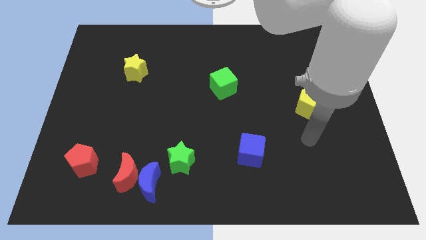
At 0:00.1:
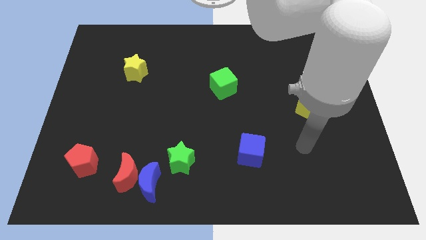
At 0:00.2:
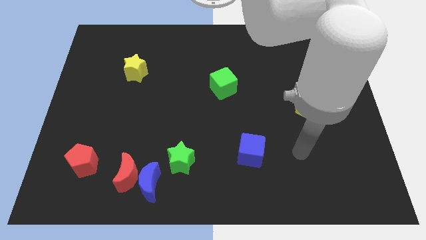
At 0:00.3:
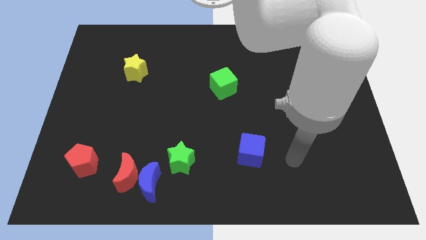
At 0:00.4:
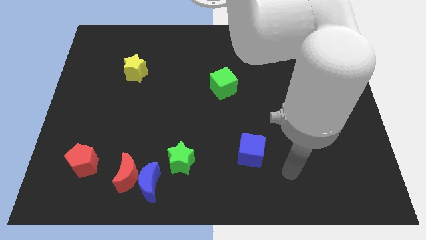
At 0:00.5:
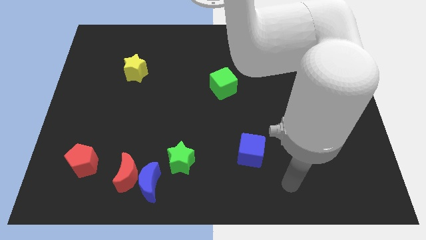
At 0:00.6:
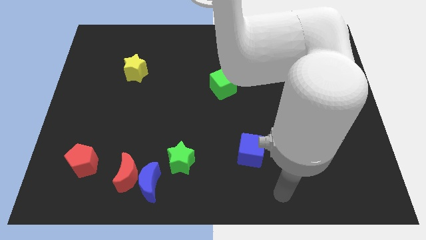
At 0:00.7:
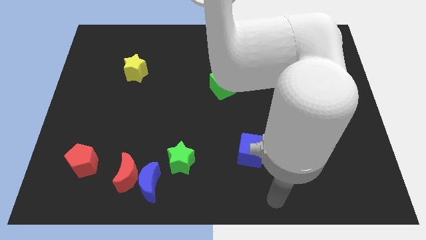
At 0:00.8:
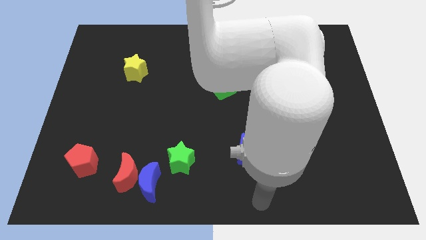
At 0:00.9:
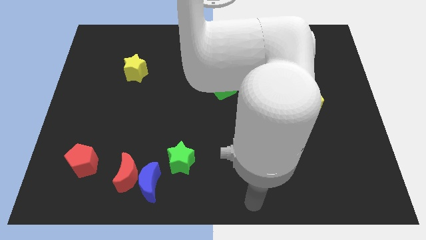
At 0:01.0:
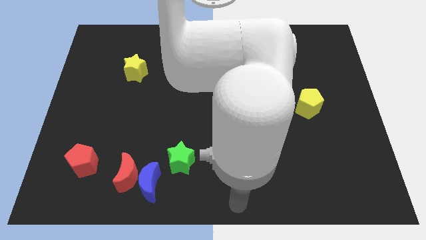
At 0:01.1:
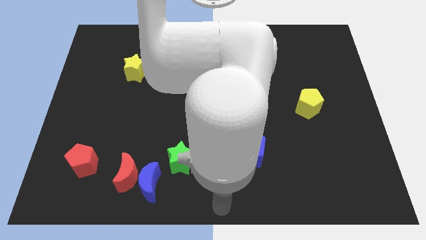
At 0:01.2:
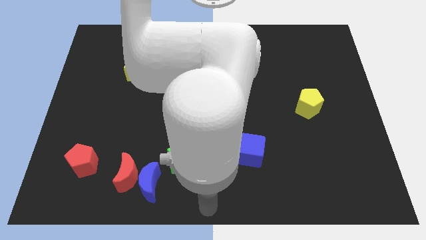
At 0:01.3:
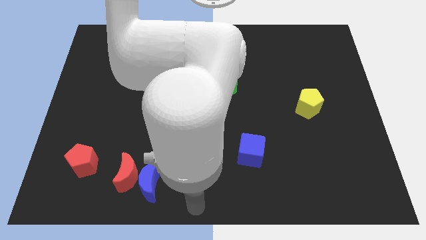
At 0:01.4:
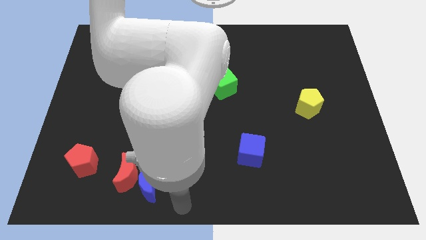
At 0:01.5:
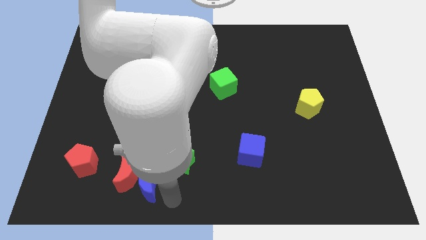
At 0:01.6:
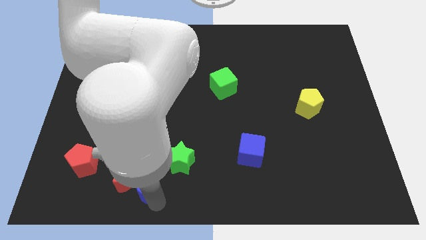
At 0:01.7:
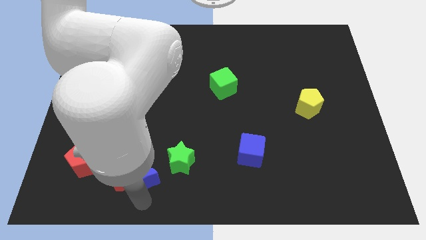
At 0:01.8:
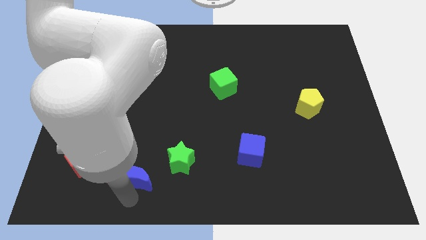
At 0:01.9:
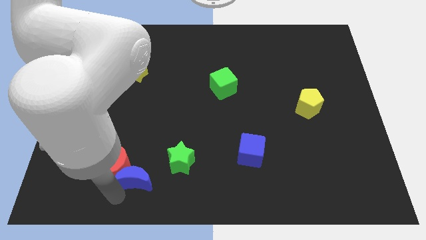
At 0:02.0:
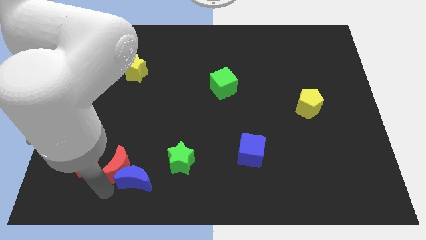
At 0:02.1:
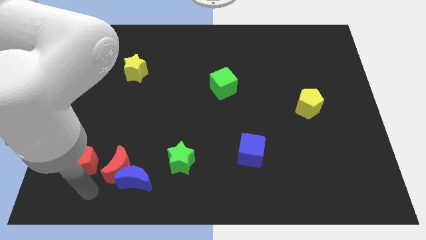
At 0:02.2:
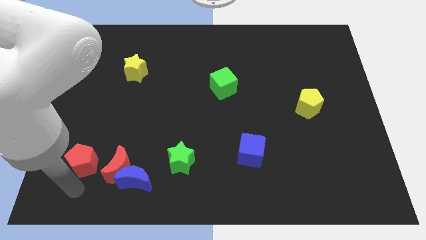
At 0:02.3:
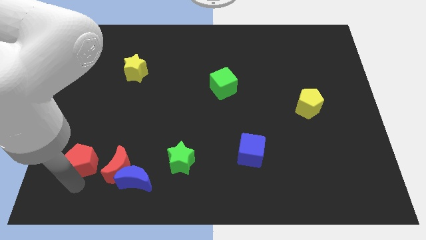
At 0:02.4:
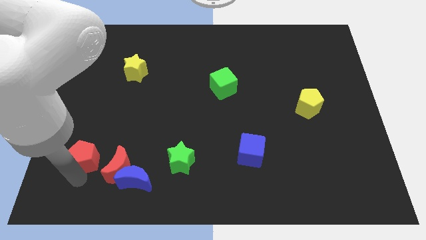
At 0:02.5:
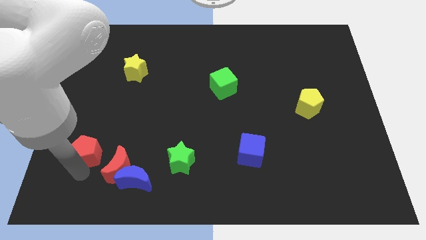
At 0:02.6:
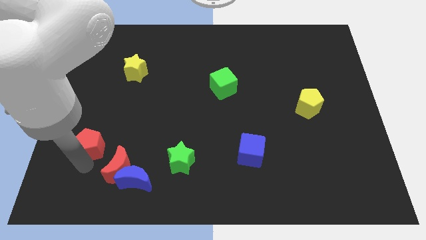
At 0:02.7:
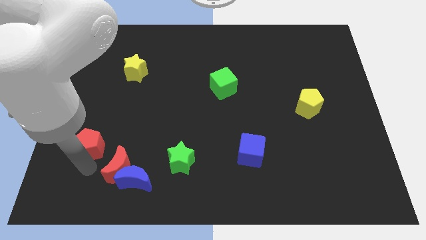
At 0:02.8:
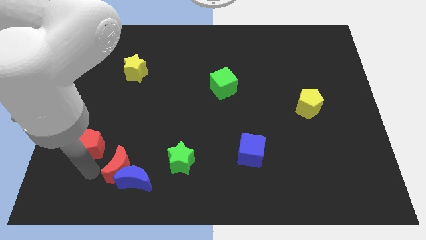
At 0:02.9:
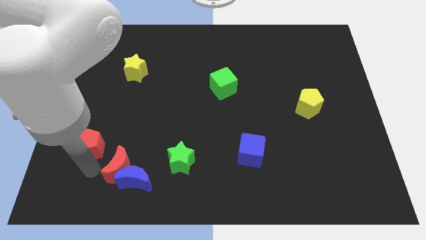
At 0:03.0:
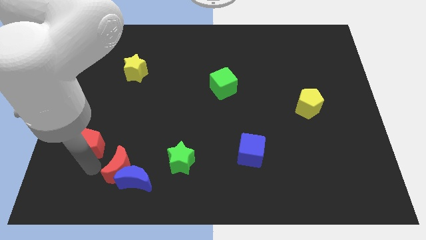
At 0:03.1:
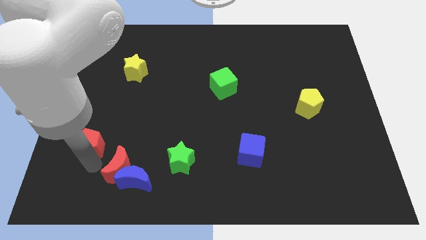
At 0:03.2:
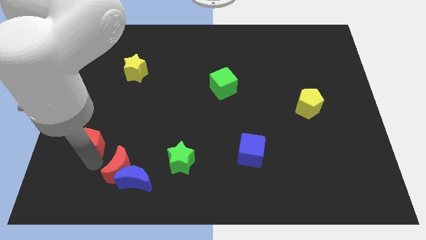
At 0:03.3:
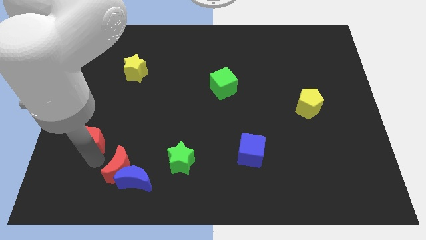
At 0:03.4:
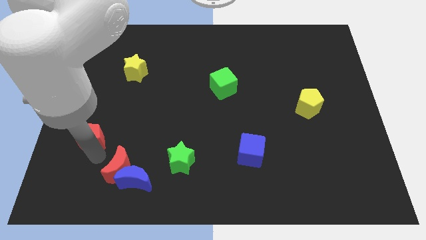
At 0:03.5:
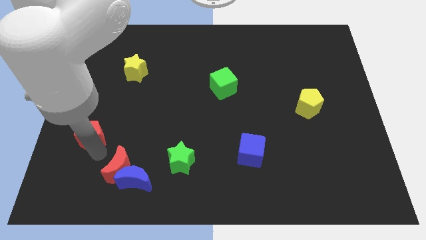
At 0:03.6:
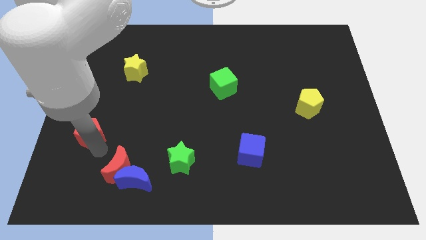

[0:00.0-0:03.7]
slide the red pentagon slightly up

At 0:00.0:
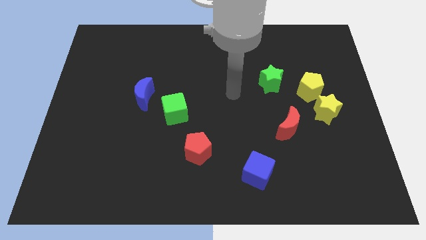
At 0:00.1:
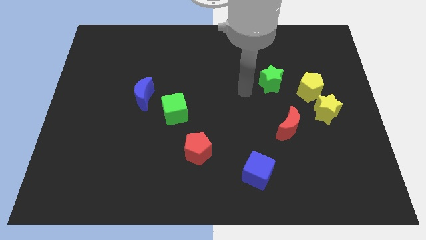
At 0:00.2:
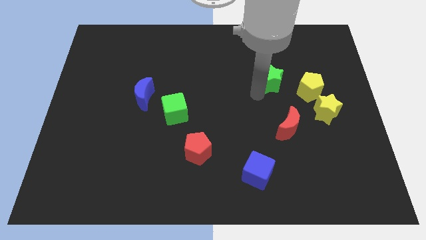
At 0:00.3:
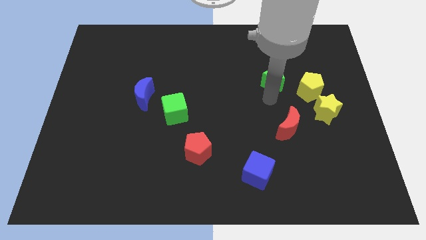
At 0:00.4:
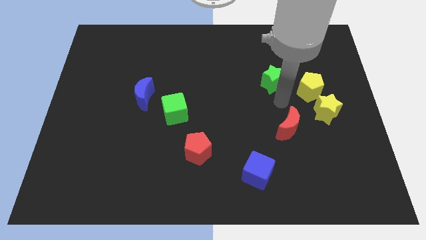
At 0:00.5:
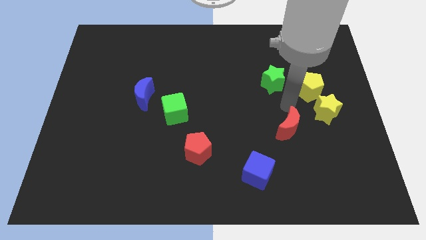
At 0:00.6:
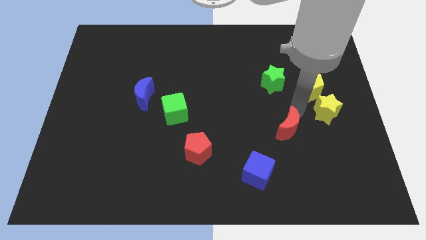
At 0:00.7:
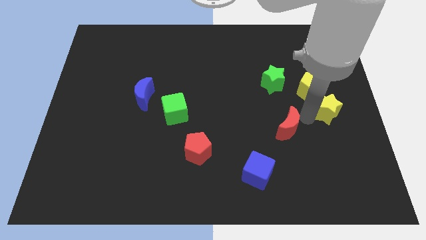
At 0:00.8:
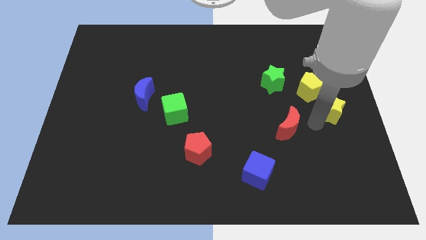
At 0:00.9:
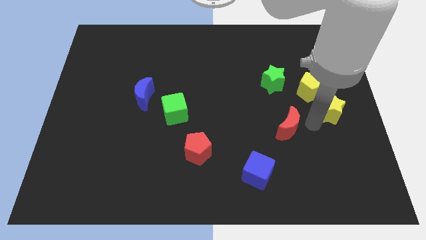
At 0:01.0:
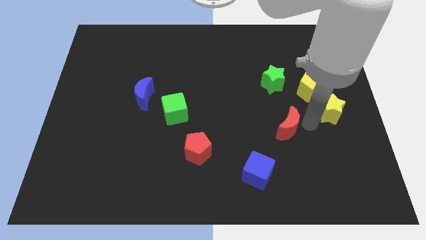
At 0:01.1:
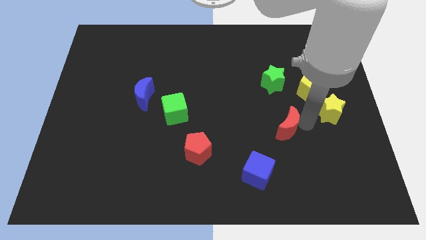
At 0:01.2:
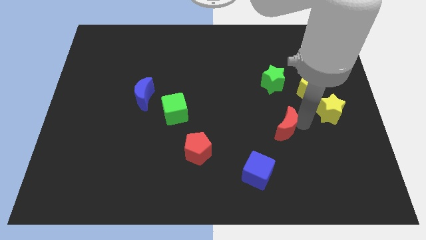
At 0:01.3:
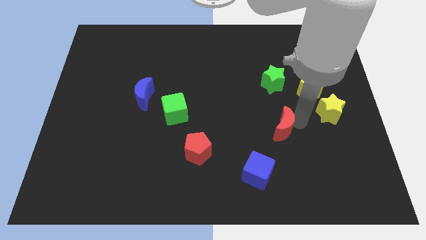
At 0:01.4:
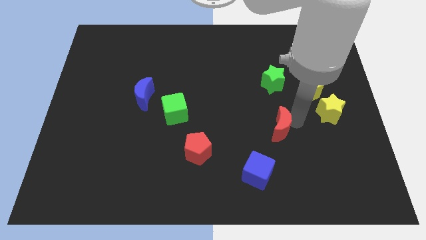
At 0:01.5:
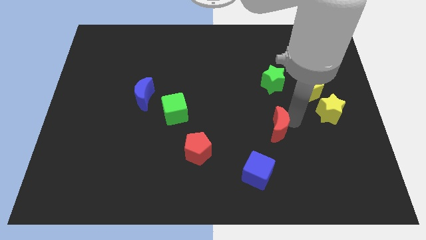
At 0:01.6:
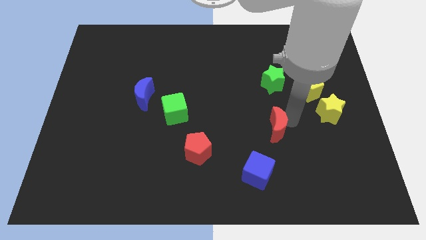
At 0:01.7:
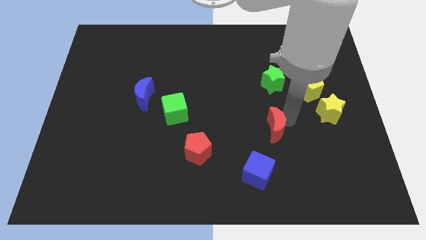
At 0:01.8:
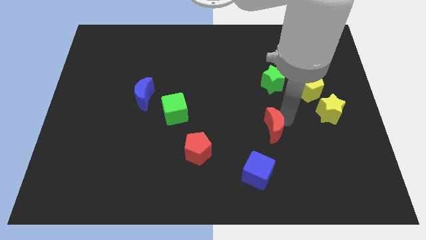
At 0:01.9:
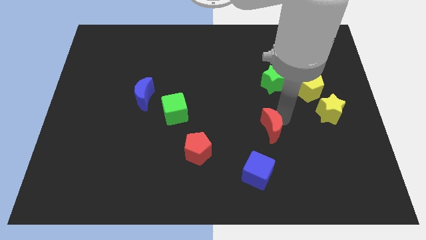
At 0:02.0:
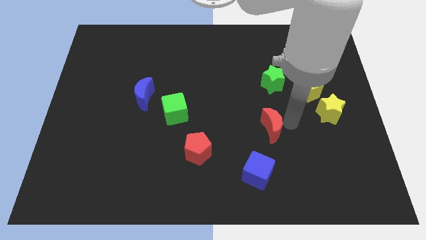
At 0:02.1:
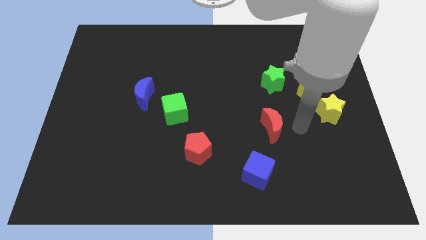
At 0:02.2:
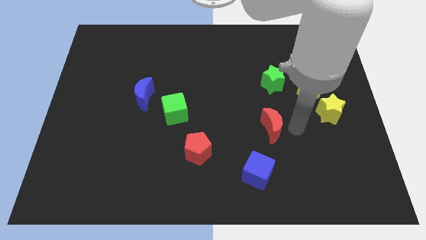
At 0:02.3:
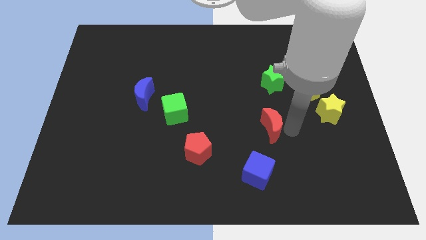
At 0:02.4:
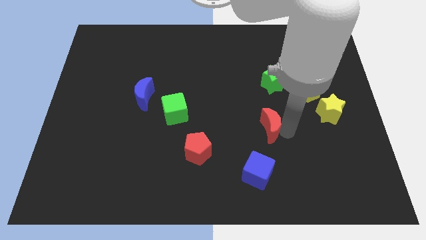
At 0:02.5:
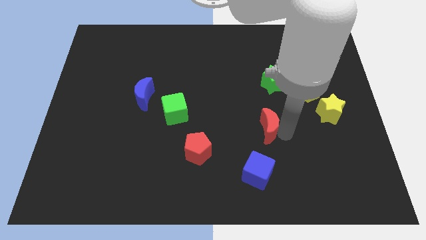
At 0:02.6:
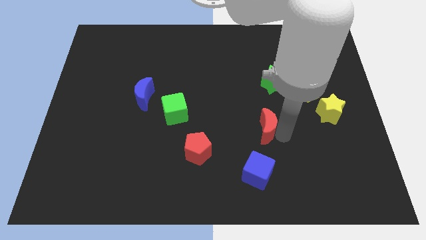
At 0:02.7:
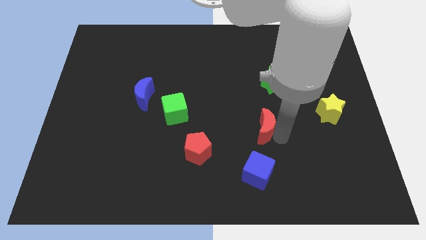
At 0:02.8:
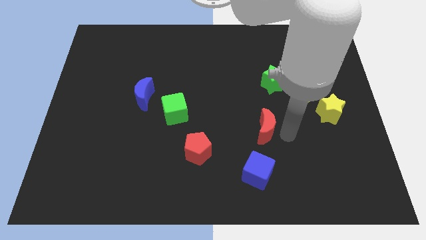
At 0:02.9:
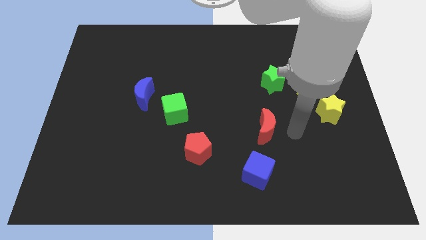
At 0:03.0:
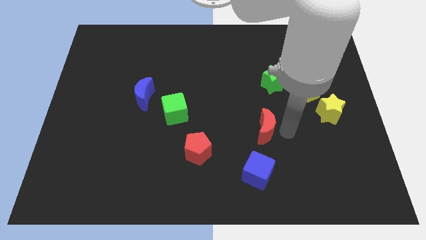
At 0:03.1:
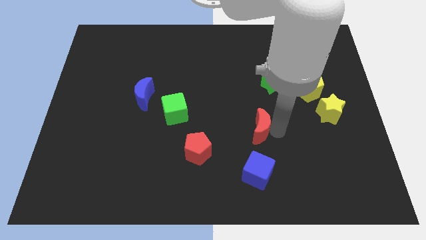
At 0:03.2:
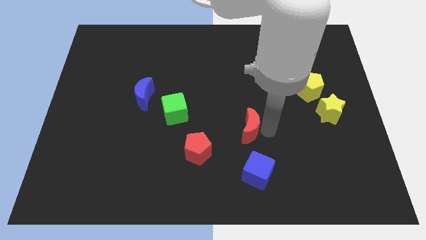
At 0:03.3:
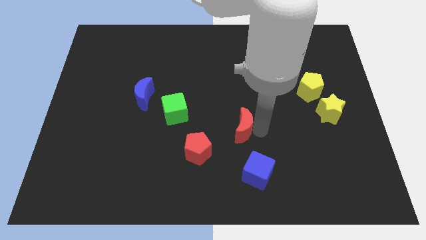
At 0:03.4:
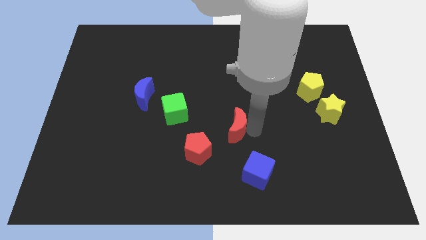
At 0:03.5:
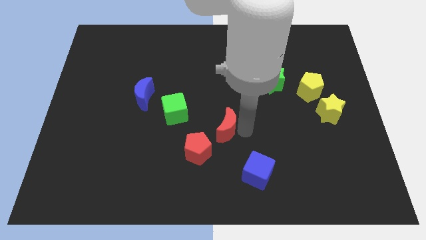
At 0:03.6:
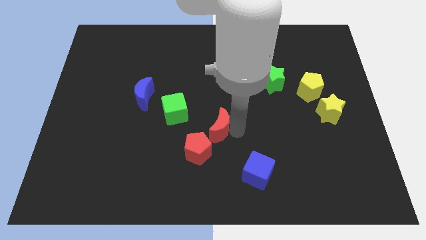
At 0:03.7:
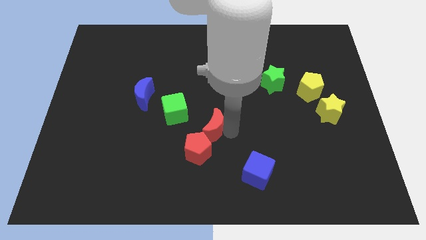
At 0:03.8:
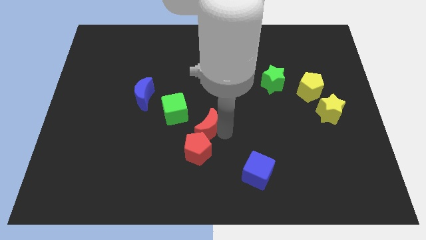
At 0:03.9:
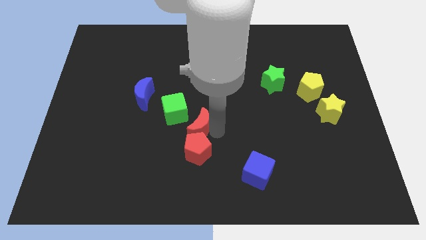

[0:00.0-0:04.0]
slide the red moon to the left

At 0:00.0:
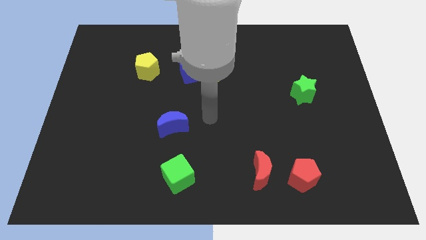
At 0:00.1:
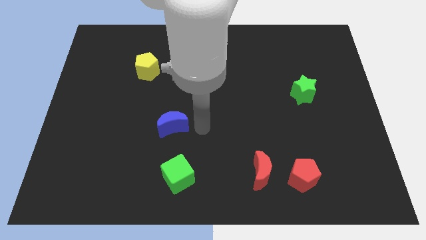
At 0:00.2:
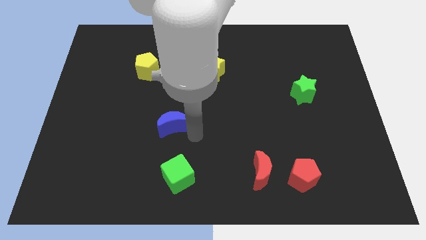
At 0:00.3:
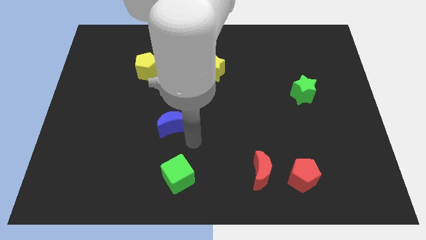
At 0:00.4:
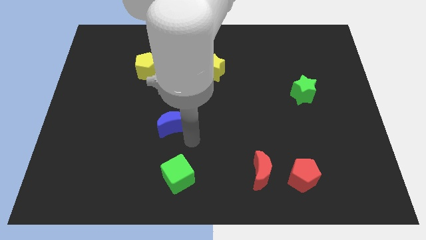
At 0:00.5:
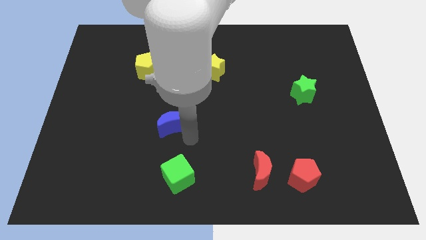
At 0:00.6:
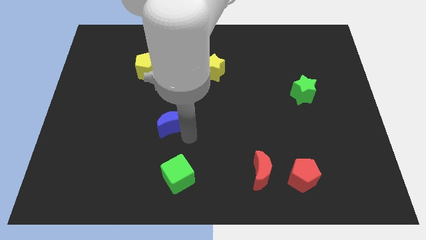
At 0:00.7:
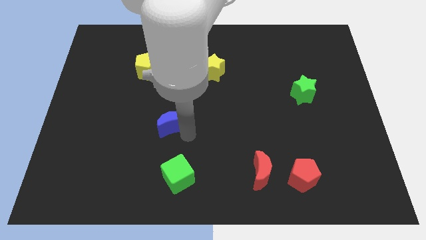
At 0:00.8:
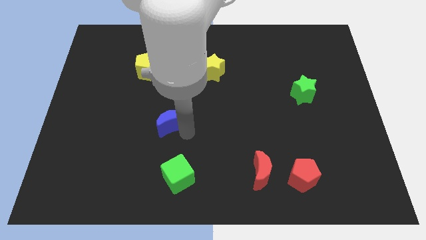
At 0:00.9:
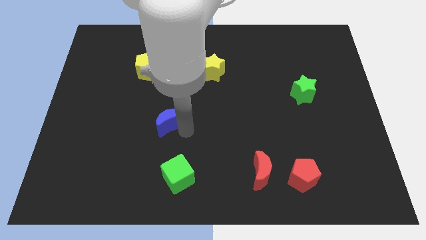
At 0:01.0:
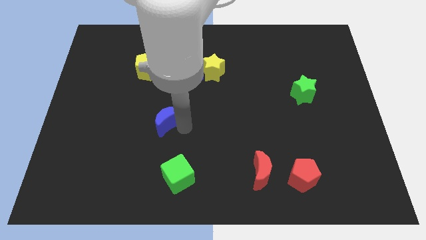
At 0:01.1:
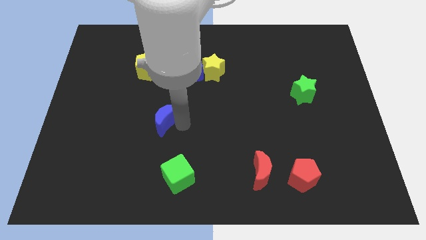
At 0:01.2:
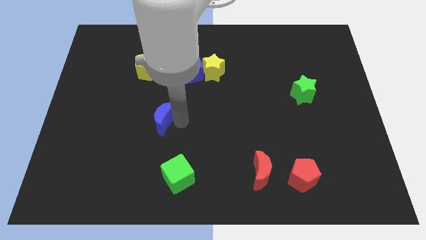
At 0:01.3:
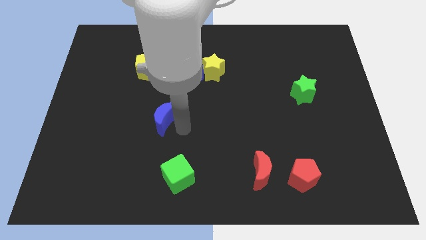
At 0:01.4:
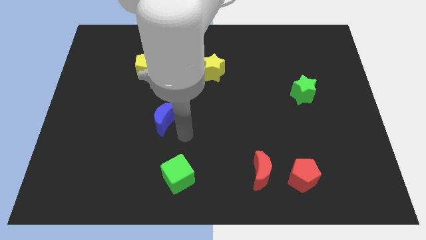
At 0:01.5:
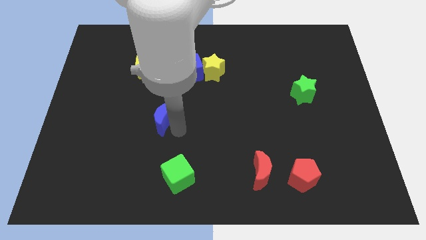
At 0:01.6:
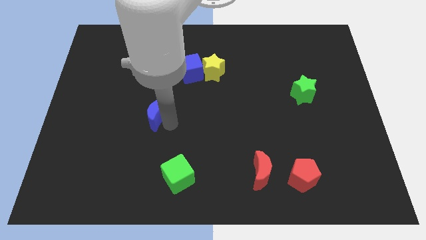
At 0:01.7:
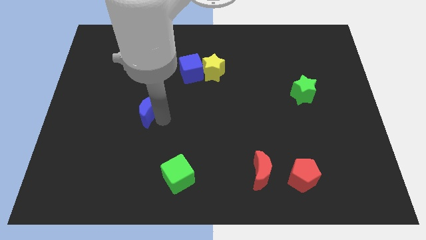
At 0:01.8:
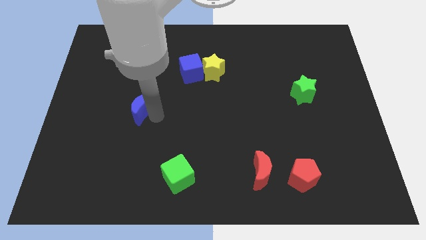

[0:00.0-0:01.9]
slide the blue moon upwards and to the left somewhat
